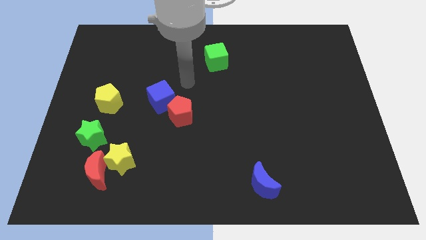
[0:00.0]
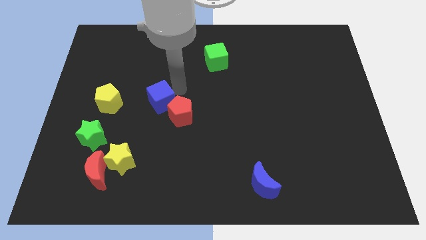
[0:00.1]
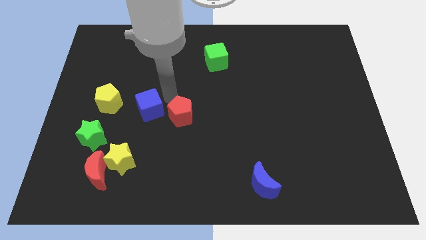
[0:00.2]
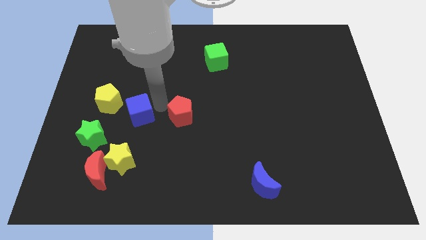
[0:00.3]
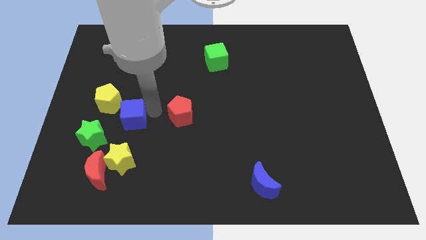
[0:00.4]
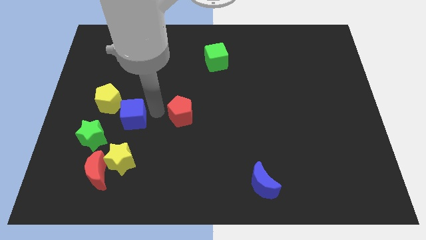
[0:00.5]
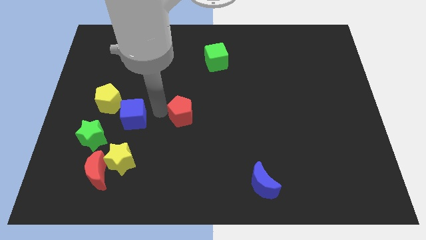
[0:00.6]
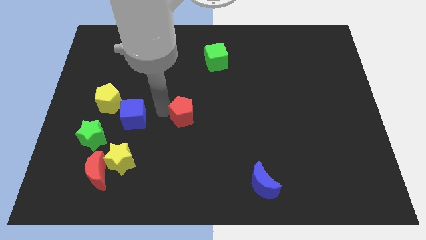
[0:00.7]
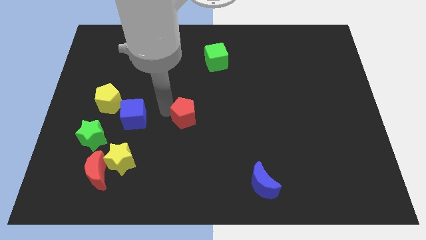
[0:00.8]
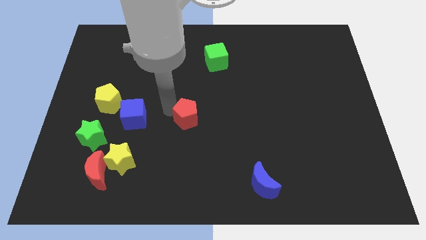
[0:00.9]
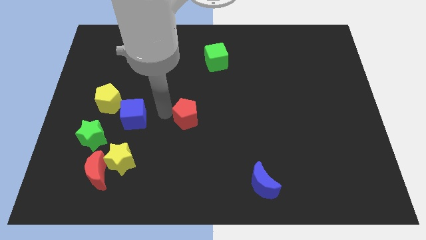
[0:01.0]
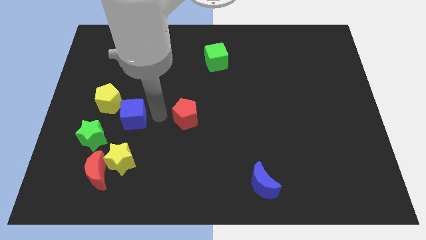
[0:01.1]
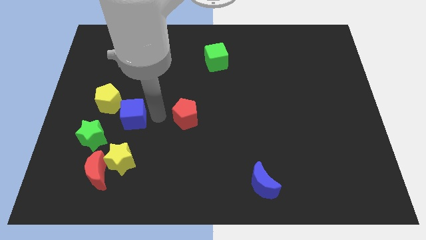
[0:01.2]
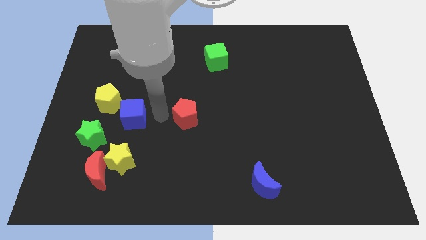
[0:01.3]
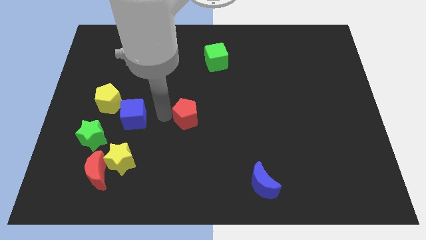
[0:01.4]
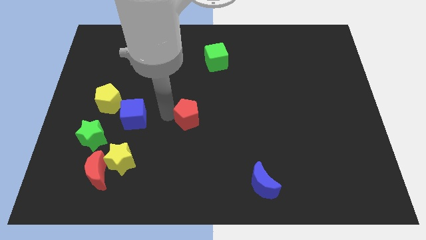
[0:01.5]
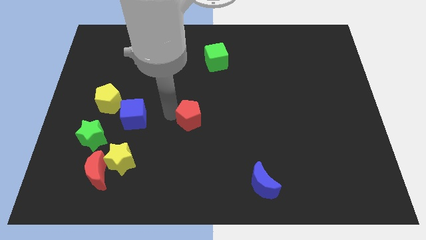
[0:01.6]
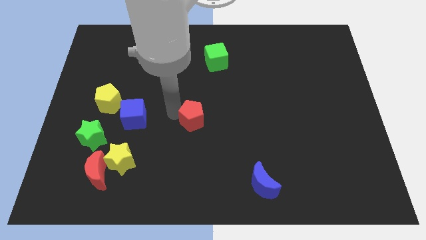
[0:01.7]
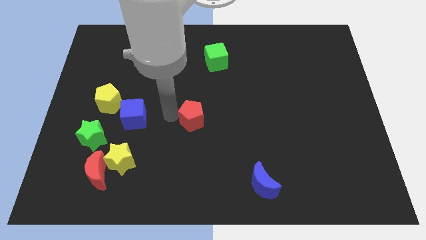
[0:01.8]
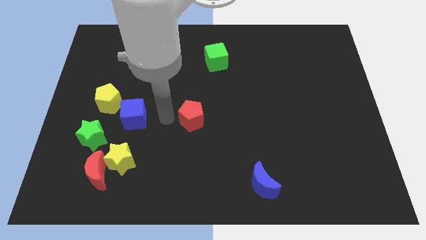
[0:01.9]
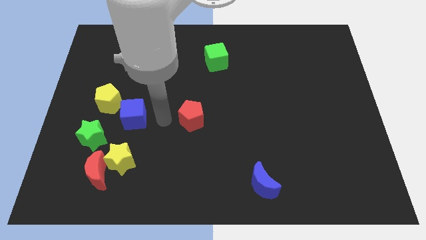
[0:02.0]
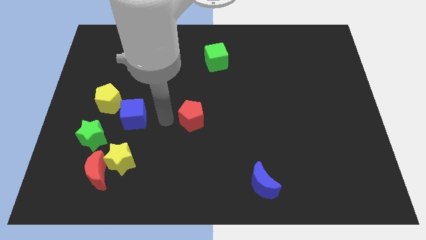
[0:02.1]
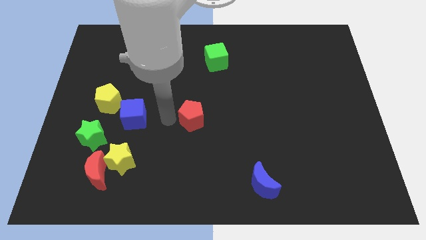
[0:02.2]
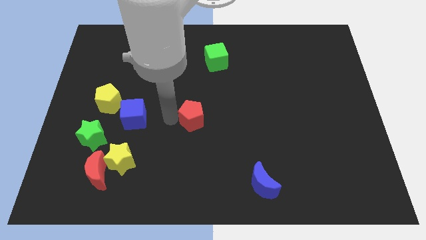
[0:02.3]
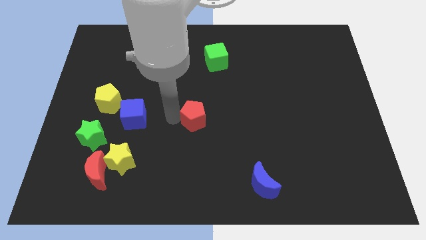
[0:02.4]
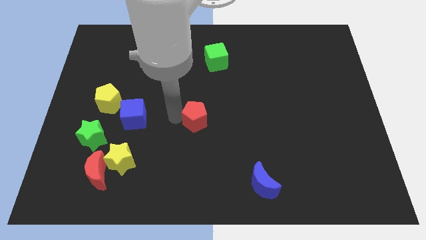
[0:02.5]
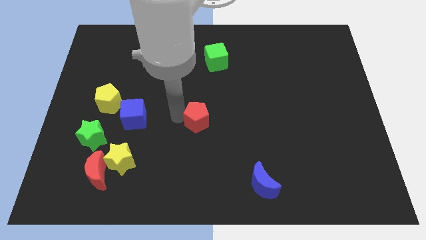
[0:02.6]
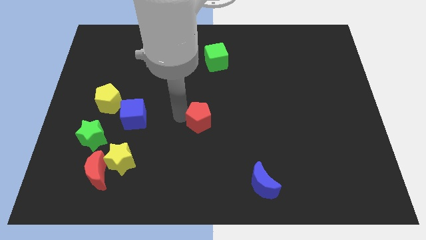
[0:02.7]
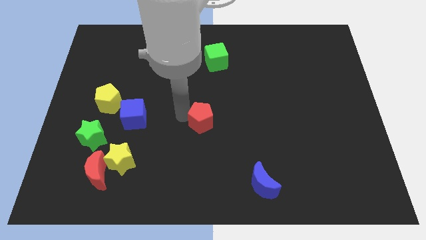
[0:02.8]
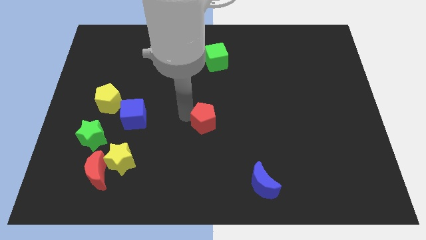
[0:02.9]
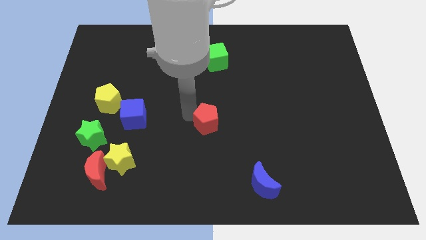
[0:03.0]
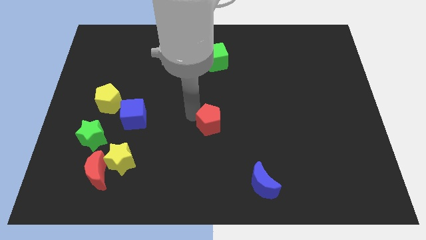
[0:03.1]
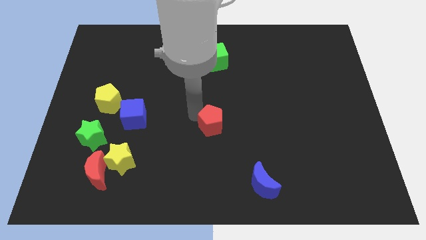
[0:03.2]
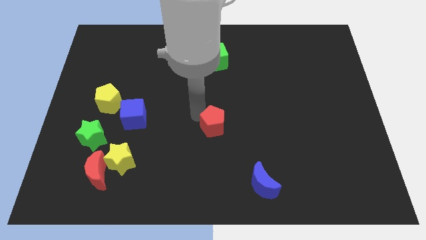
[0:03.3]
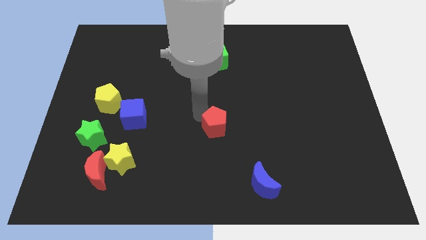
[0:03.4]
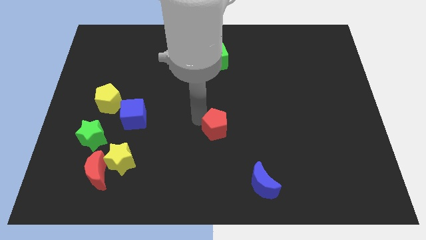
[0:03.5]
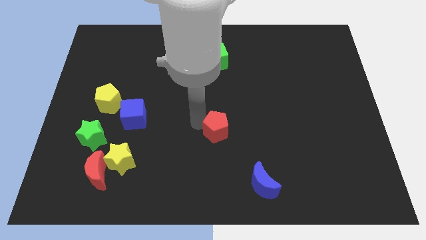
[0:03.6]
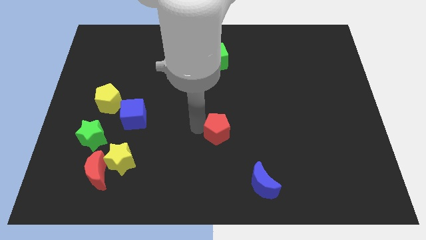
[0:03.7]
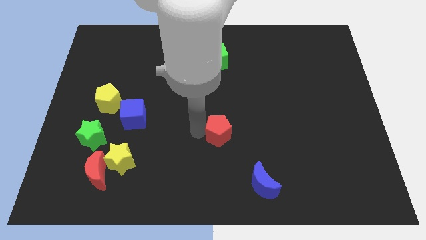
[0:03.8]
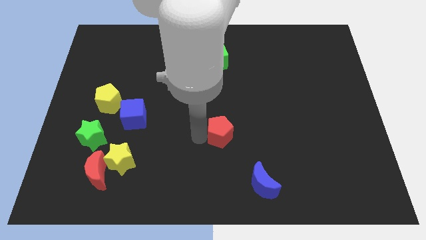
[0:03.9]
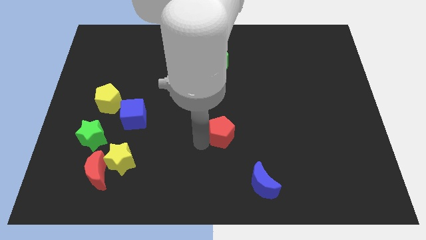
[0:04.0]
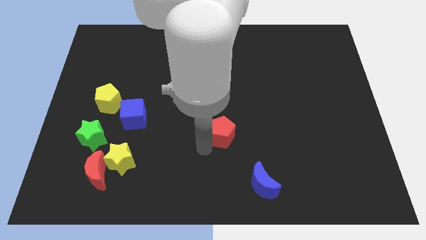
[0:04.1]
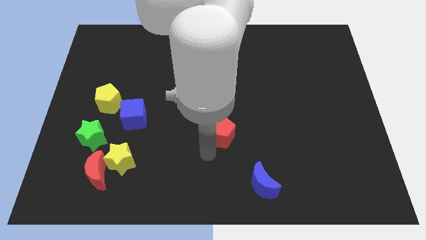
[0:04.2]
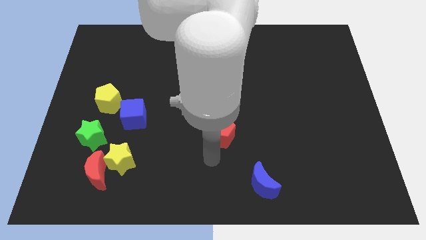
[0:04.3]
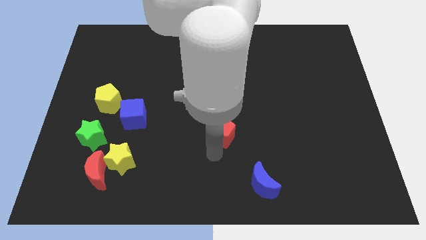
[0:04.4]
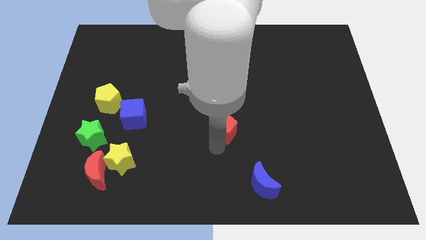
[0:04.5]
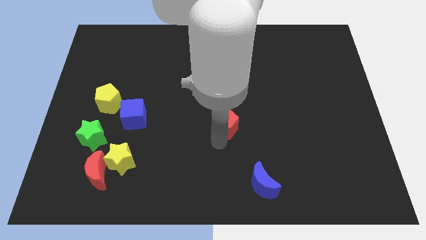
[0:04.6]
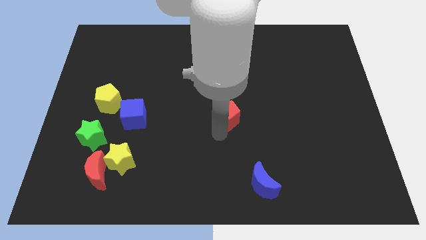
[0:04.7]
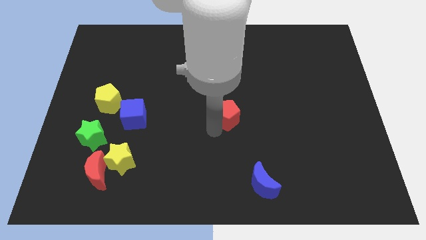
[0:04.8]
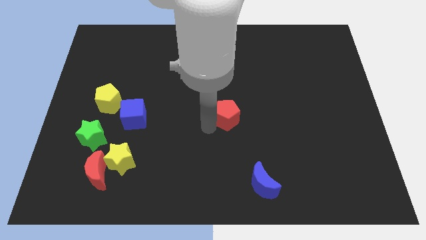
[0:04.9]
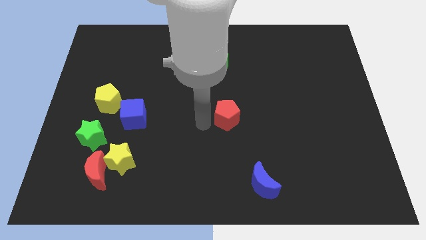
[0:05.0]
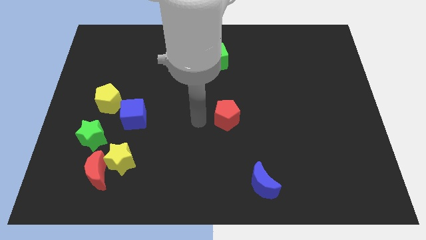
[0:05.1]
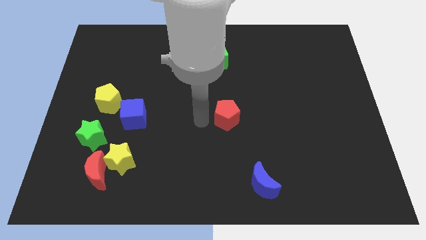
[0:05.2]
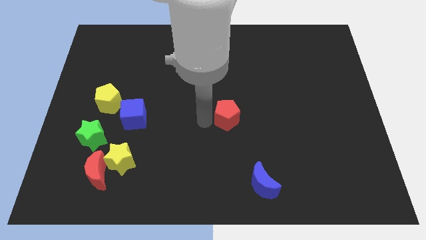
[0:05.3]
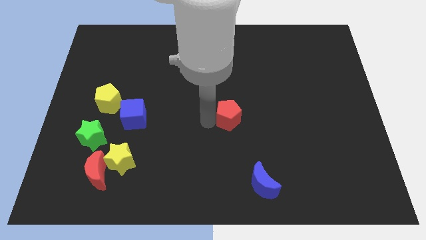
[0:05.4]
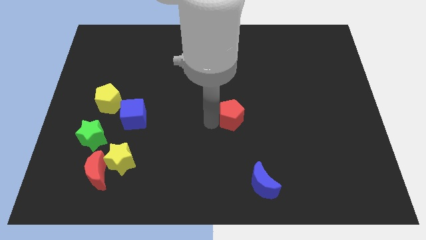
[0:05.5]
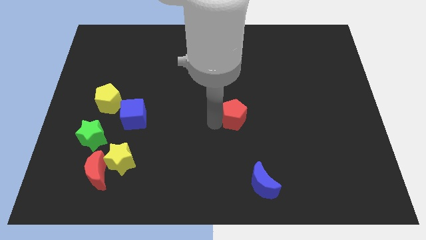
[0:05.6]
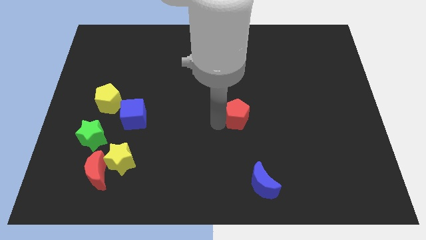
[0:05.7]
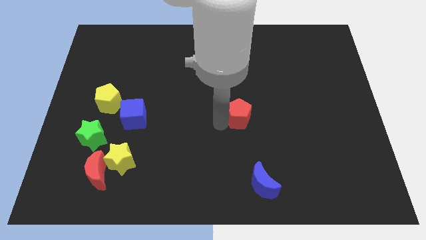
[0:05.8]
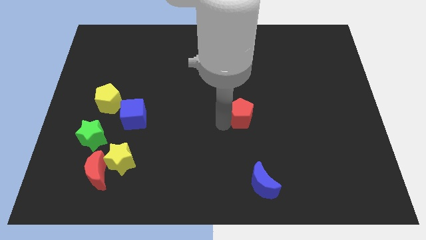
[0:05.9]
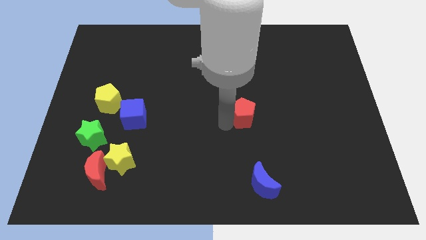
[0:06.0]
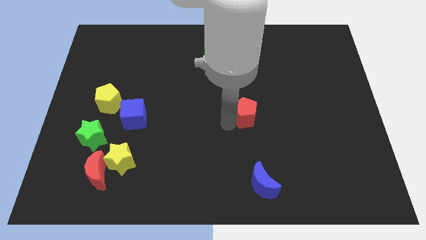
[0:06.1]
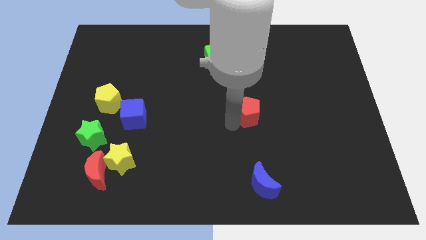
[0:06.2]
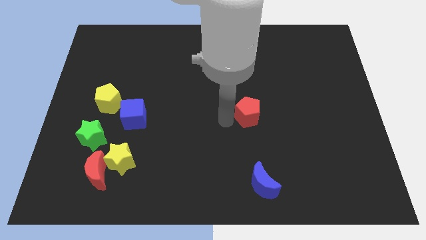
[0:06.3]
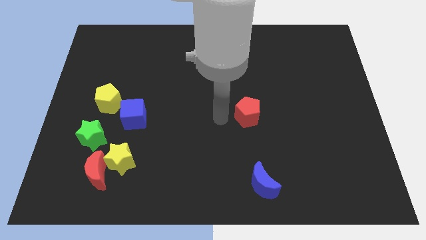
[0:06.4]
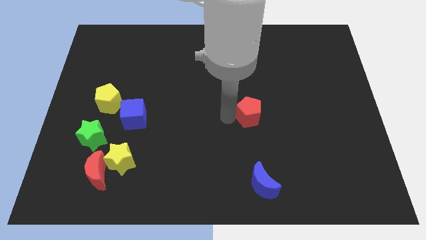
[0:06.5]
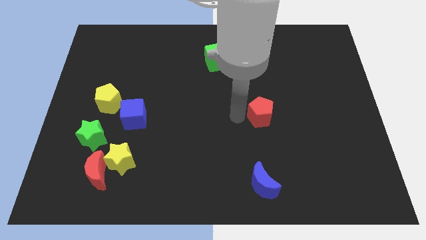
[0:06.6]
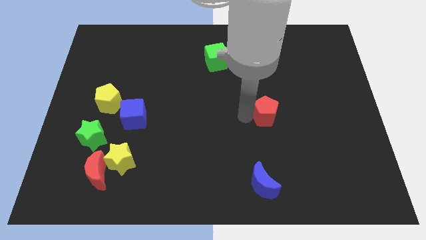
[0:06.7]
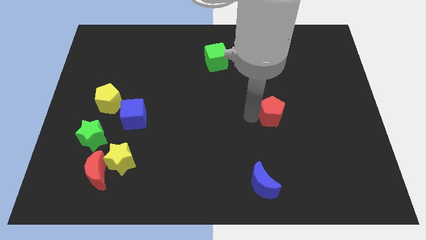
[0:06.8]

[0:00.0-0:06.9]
push the red pentagon right

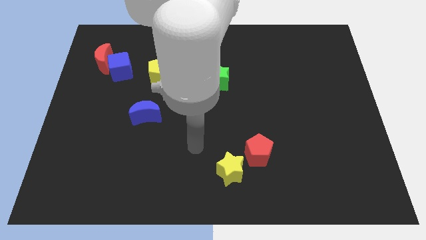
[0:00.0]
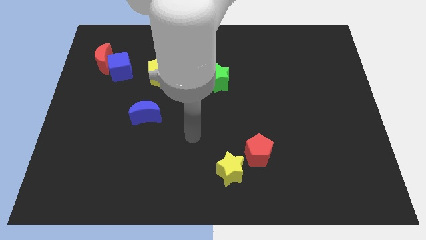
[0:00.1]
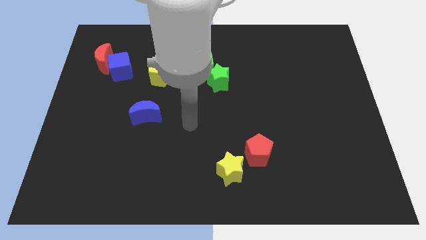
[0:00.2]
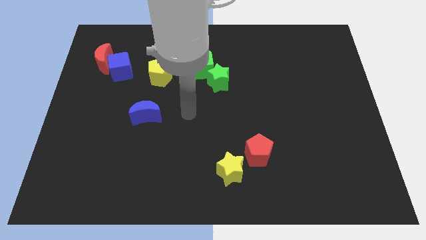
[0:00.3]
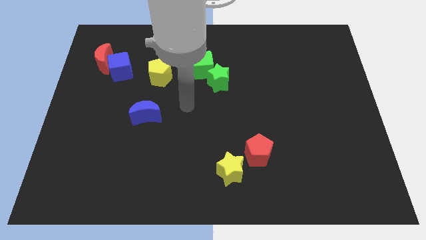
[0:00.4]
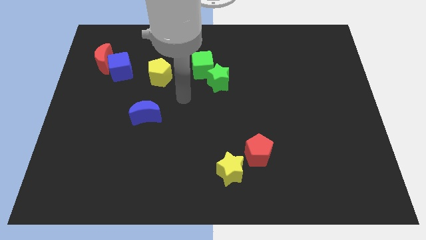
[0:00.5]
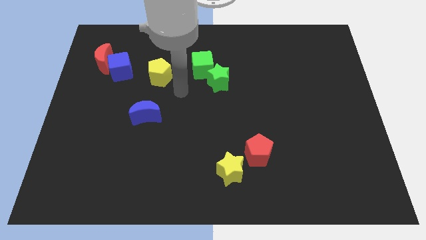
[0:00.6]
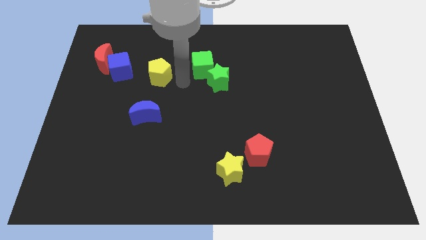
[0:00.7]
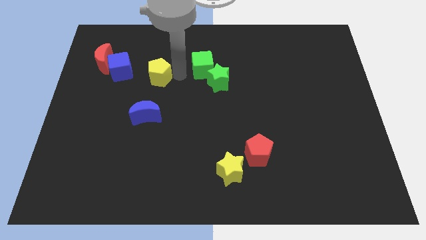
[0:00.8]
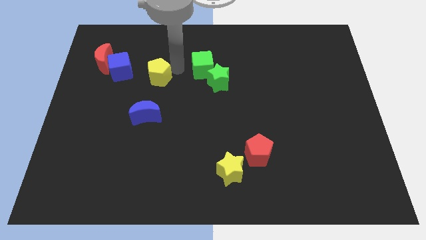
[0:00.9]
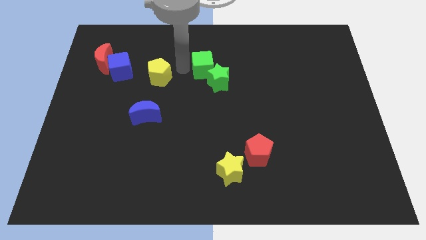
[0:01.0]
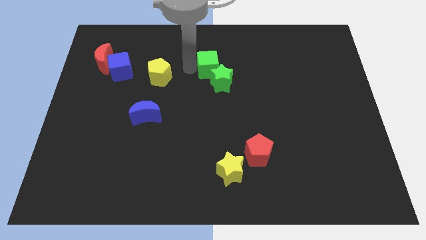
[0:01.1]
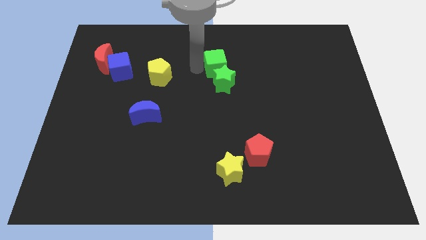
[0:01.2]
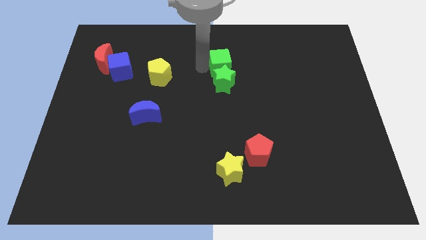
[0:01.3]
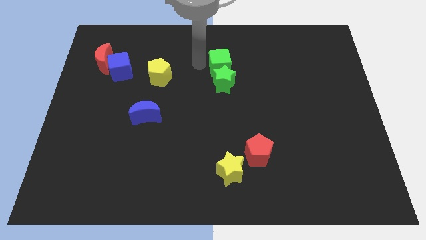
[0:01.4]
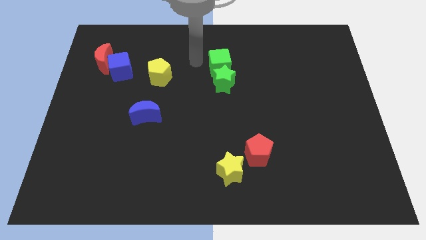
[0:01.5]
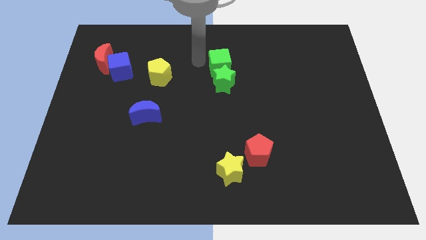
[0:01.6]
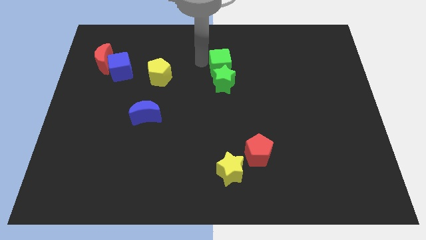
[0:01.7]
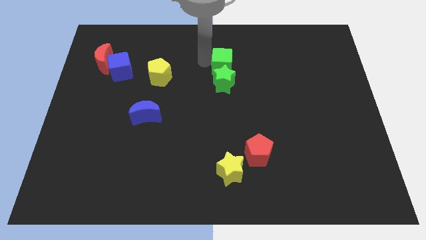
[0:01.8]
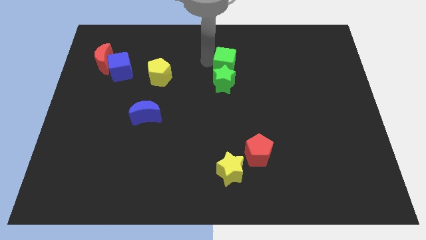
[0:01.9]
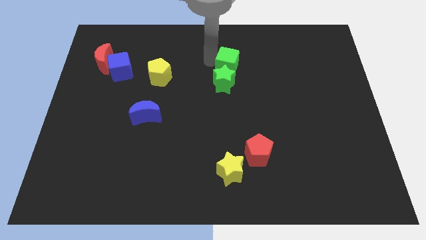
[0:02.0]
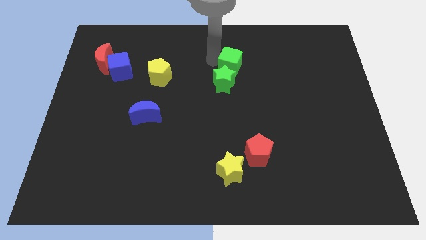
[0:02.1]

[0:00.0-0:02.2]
push the green cube right a little bit
